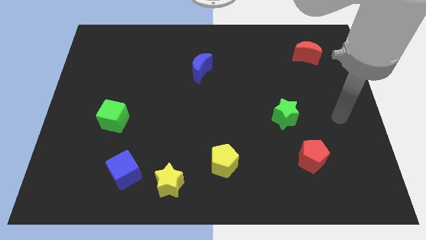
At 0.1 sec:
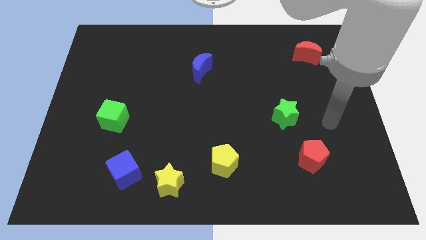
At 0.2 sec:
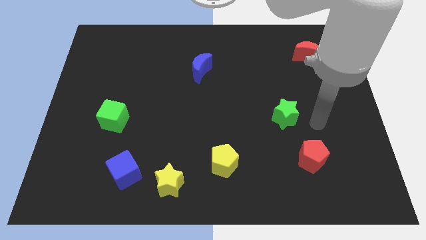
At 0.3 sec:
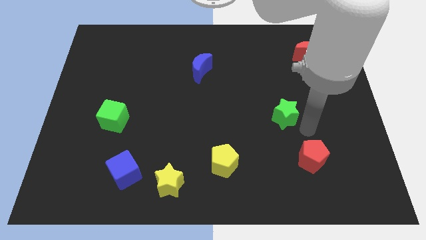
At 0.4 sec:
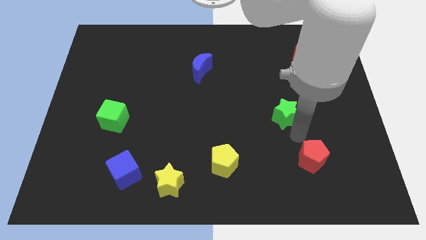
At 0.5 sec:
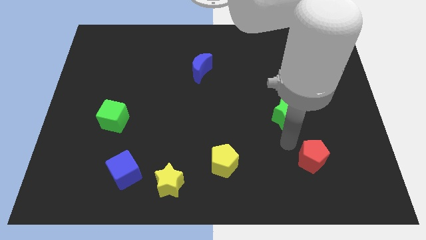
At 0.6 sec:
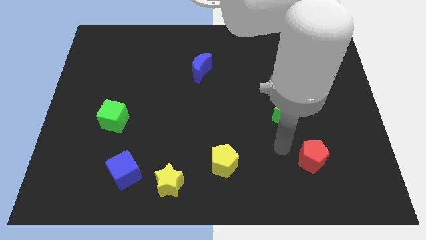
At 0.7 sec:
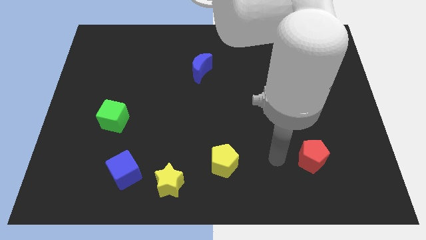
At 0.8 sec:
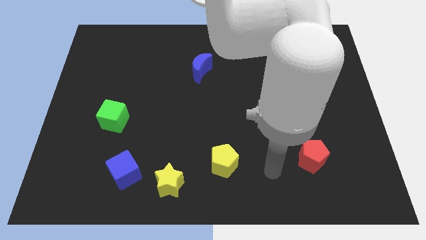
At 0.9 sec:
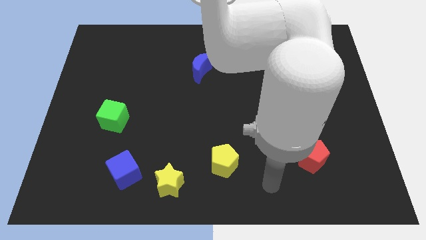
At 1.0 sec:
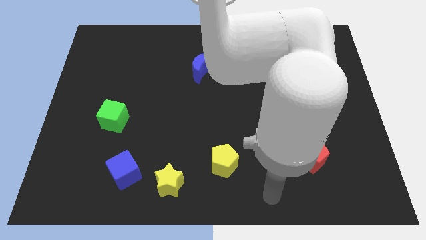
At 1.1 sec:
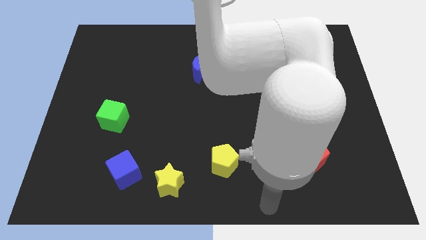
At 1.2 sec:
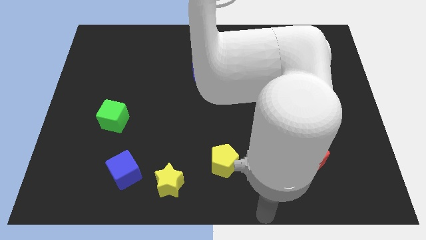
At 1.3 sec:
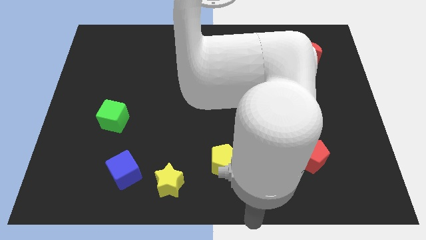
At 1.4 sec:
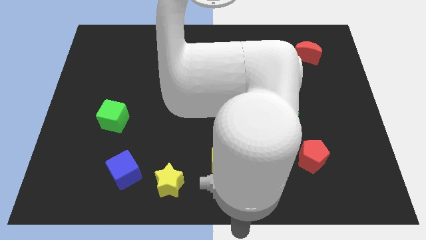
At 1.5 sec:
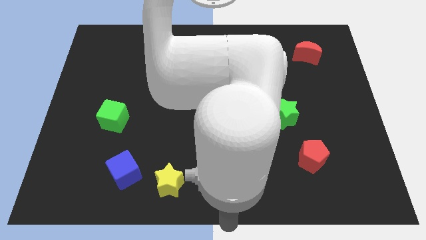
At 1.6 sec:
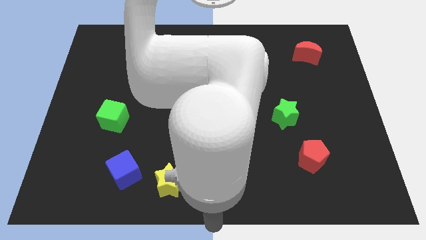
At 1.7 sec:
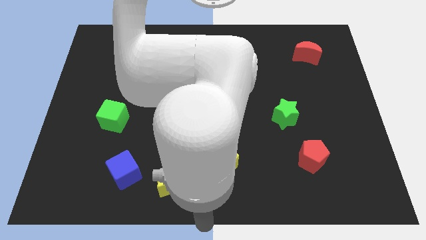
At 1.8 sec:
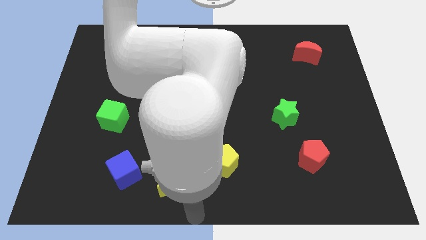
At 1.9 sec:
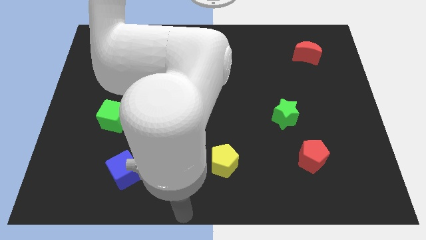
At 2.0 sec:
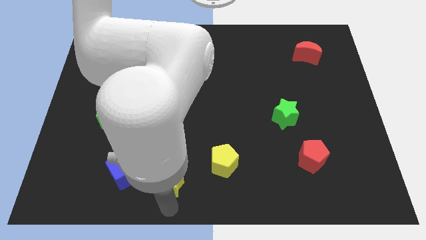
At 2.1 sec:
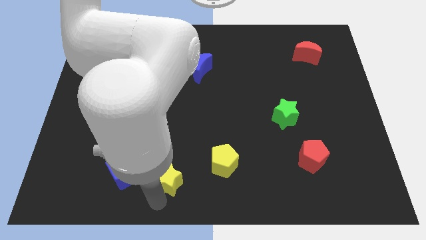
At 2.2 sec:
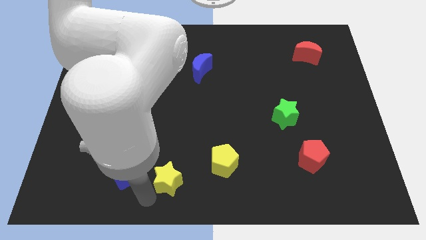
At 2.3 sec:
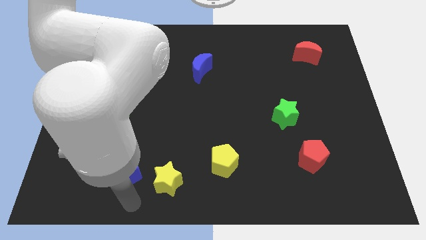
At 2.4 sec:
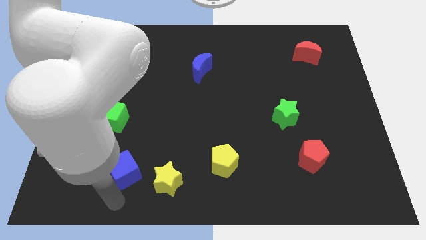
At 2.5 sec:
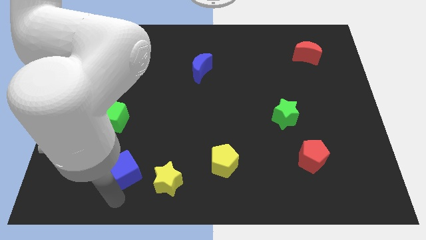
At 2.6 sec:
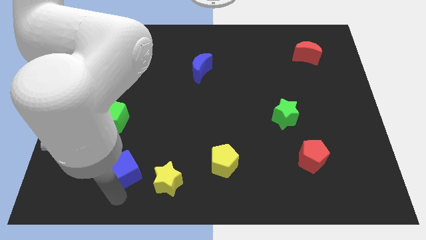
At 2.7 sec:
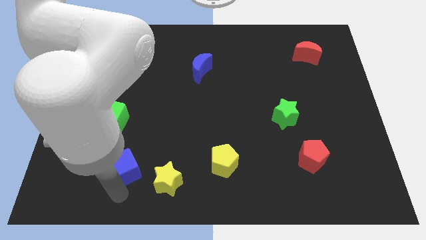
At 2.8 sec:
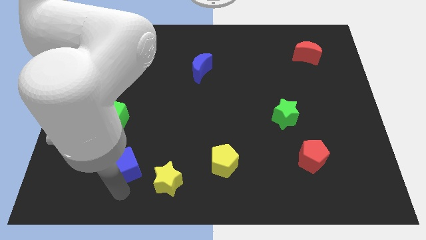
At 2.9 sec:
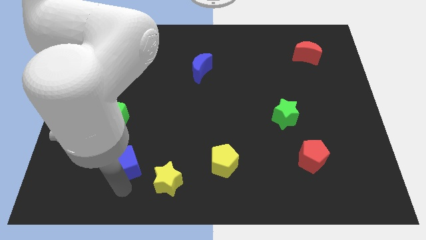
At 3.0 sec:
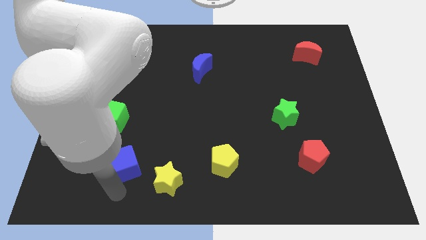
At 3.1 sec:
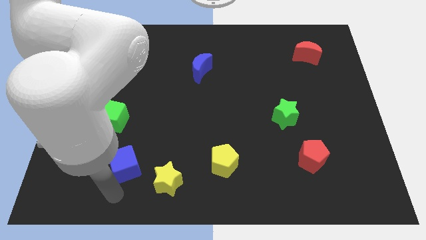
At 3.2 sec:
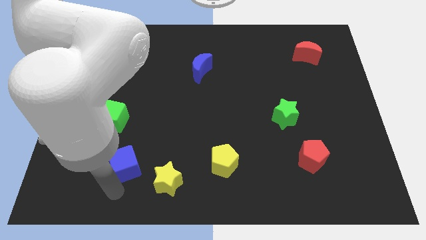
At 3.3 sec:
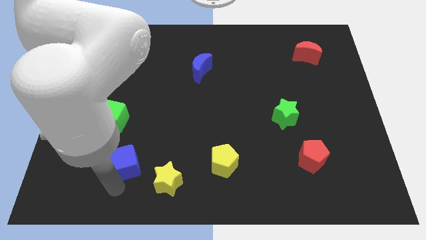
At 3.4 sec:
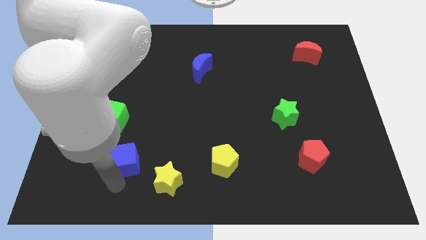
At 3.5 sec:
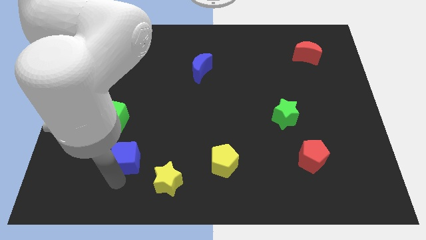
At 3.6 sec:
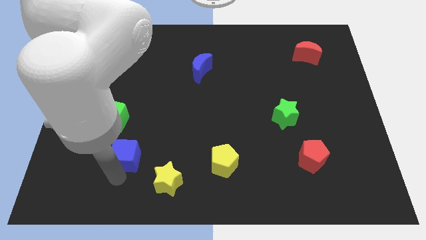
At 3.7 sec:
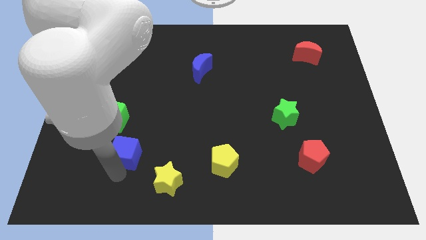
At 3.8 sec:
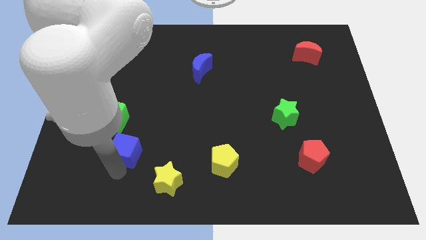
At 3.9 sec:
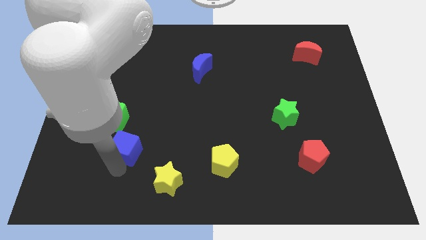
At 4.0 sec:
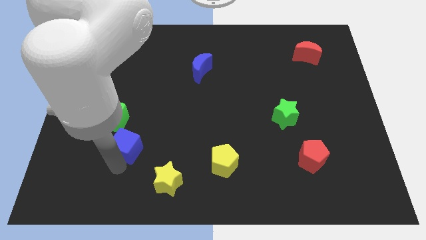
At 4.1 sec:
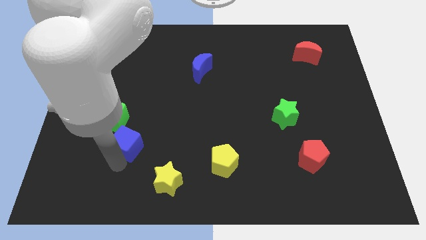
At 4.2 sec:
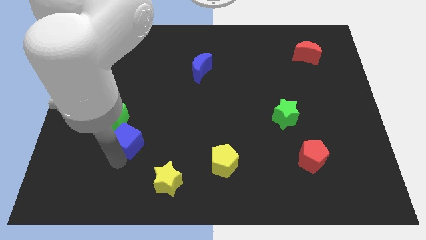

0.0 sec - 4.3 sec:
push the blue cube slightly up

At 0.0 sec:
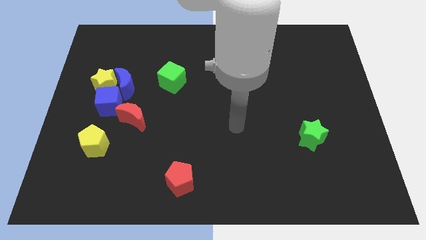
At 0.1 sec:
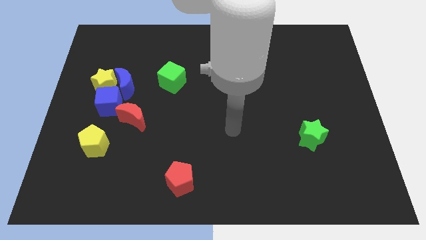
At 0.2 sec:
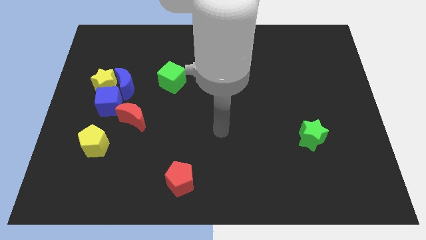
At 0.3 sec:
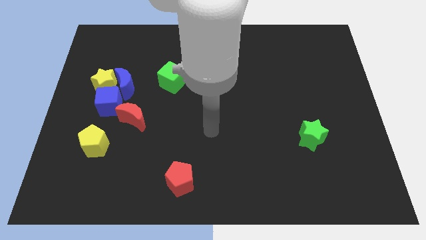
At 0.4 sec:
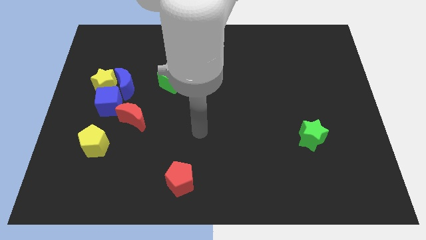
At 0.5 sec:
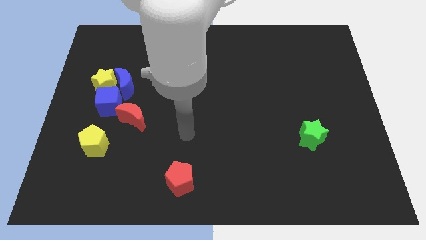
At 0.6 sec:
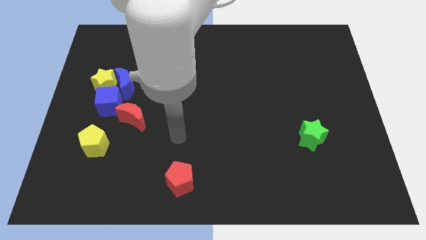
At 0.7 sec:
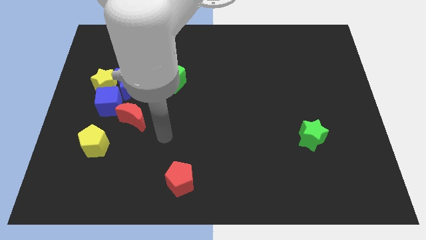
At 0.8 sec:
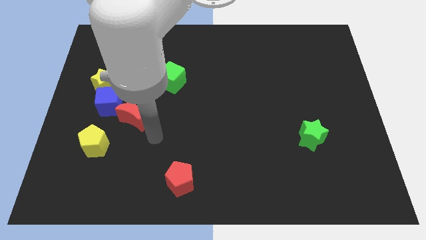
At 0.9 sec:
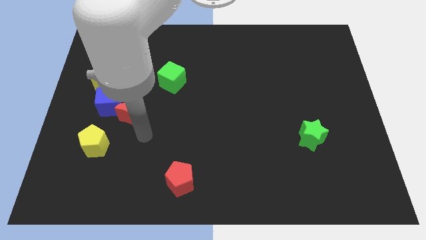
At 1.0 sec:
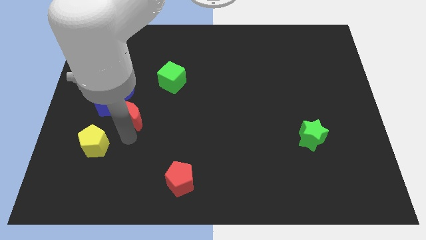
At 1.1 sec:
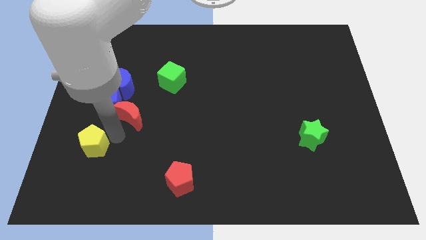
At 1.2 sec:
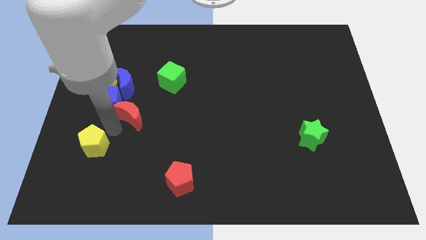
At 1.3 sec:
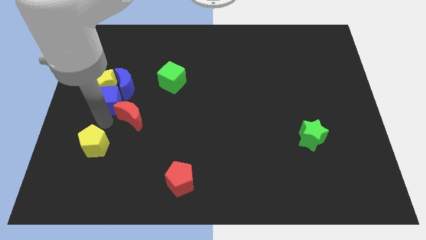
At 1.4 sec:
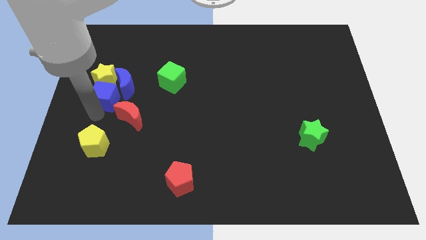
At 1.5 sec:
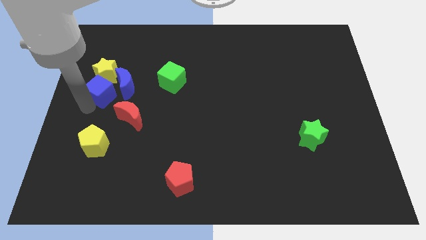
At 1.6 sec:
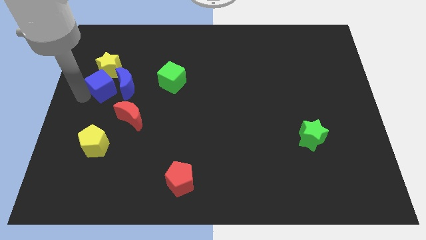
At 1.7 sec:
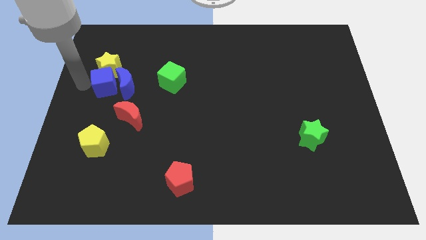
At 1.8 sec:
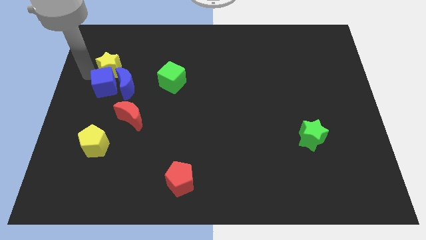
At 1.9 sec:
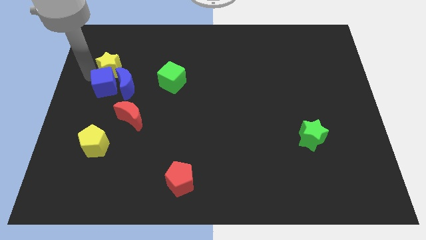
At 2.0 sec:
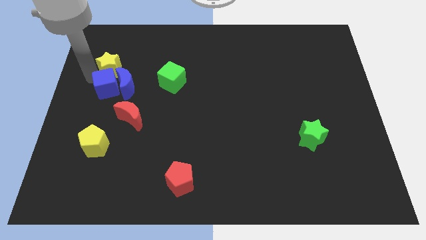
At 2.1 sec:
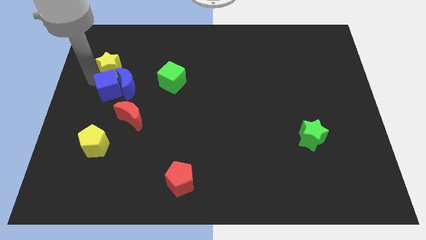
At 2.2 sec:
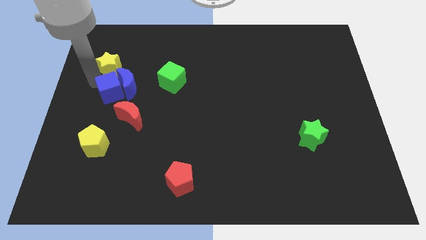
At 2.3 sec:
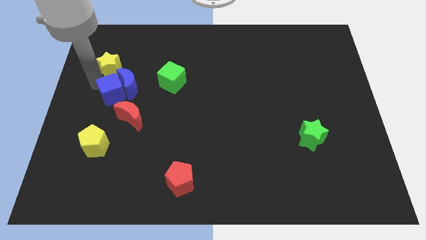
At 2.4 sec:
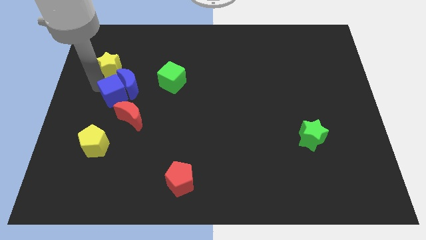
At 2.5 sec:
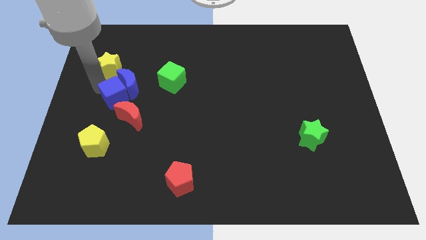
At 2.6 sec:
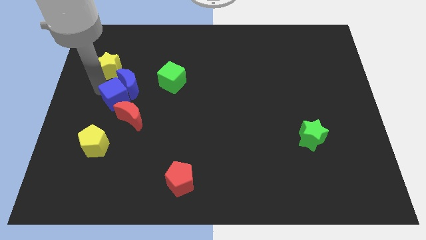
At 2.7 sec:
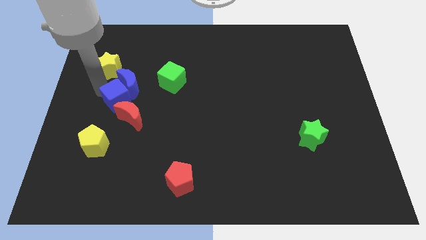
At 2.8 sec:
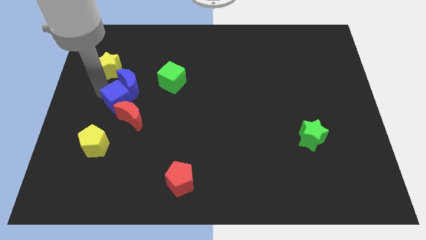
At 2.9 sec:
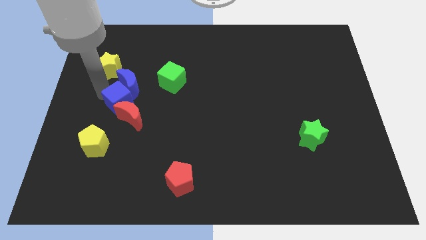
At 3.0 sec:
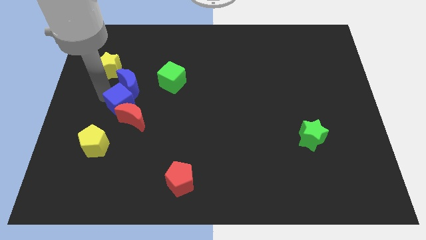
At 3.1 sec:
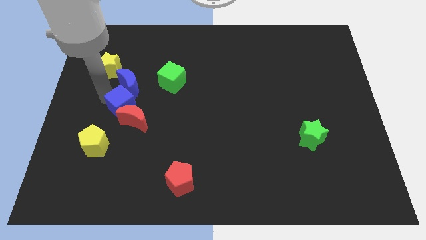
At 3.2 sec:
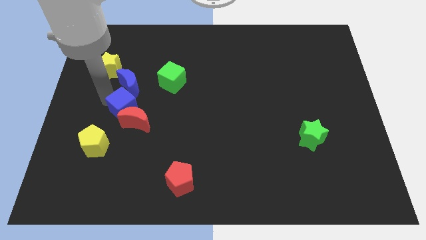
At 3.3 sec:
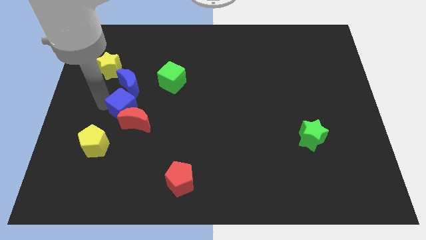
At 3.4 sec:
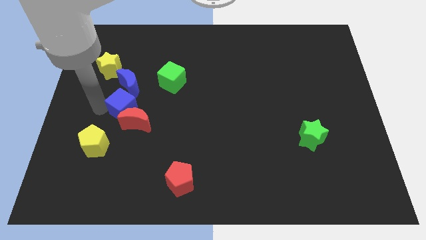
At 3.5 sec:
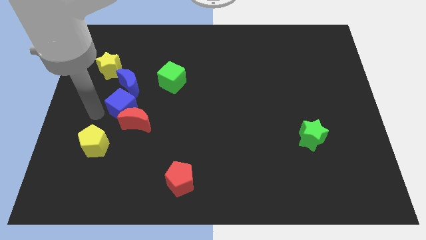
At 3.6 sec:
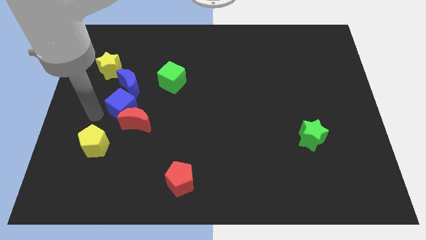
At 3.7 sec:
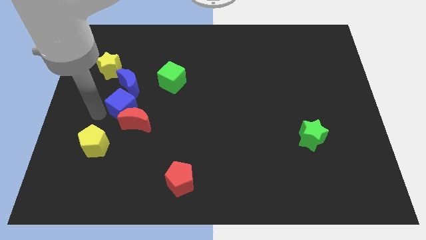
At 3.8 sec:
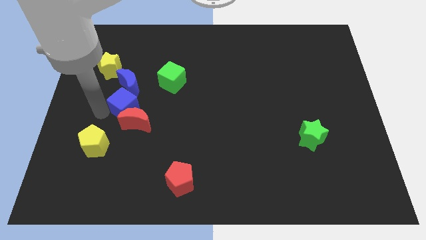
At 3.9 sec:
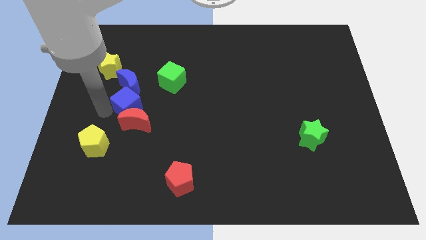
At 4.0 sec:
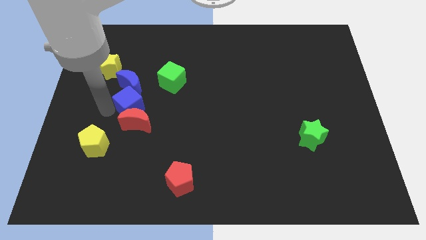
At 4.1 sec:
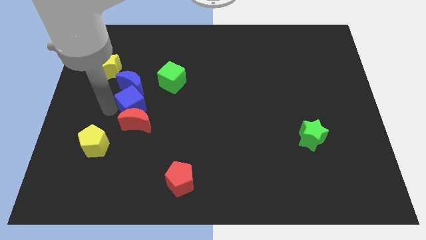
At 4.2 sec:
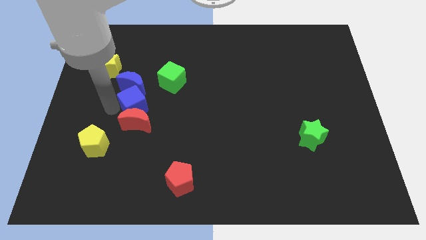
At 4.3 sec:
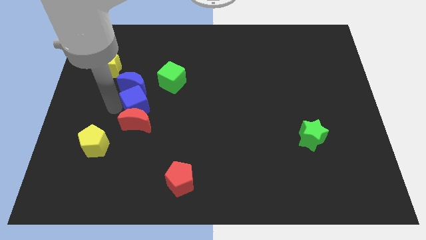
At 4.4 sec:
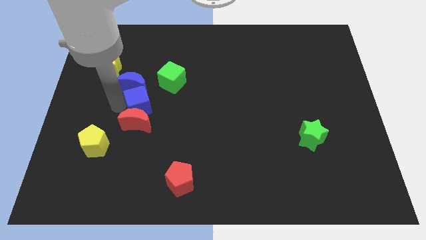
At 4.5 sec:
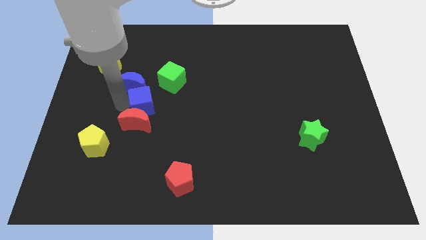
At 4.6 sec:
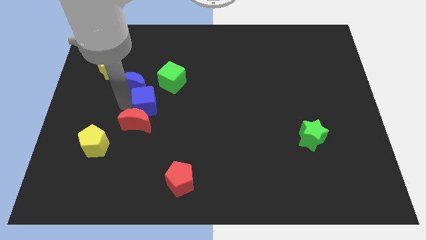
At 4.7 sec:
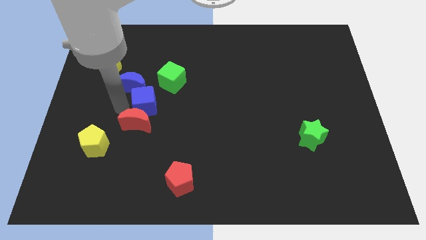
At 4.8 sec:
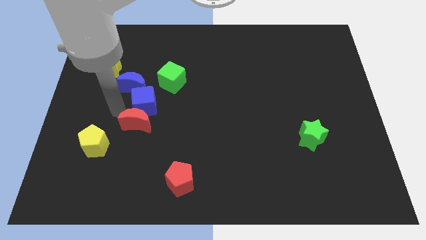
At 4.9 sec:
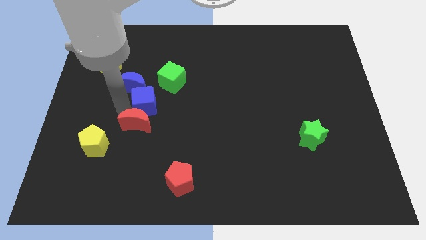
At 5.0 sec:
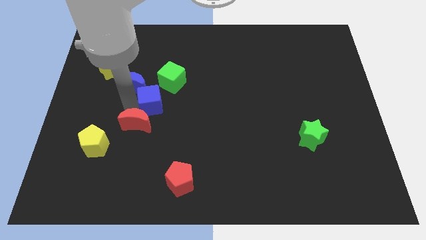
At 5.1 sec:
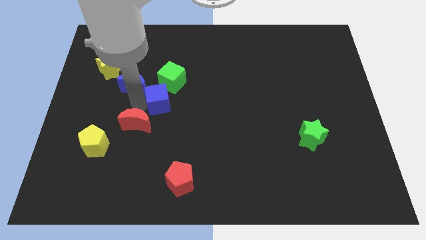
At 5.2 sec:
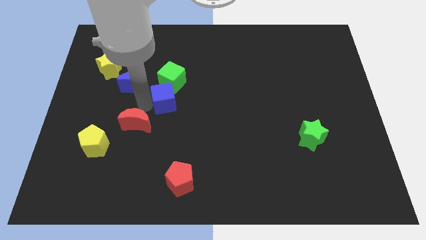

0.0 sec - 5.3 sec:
push the blue cube somewhat up and then right
